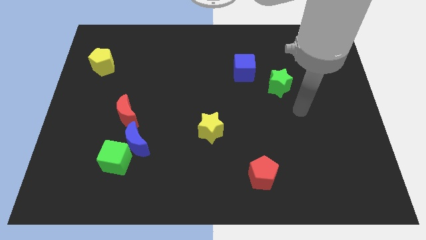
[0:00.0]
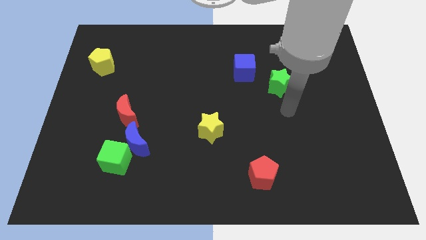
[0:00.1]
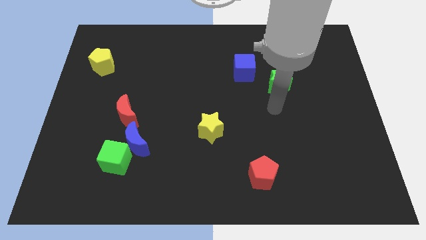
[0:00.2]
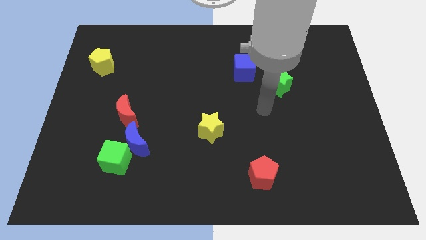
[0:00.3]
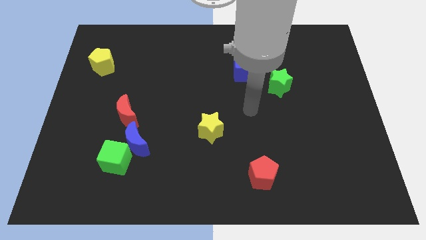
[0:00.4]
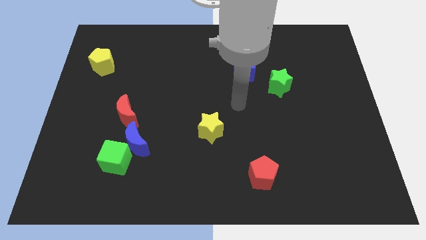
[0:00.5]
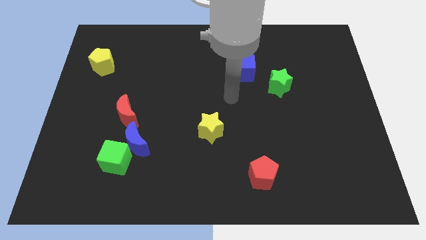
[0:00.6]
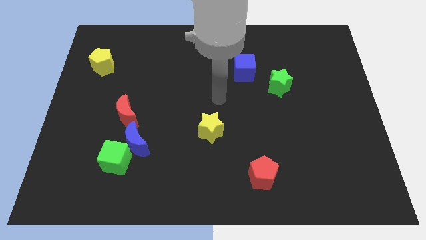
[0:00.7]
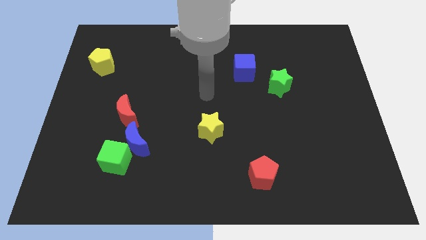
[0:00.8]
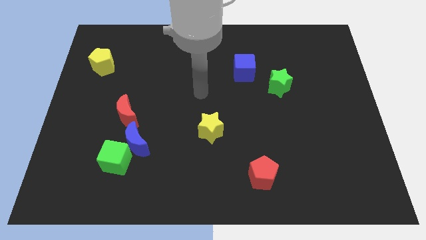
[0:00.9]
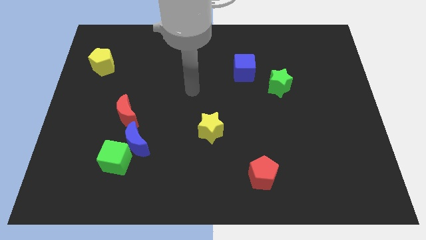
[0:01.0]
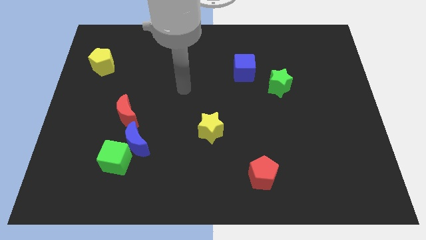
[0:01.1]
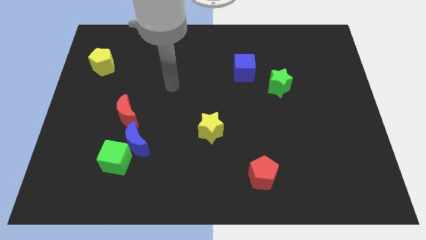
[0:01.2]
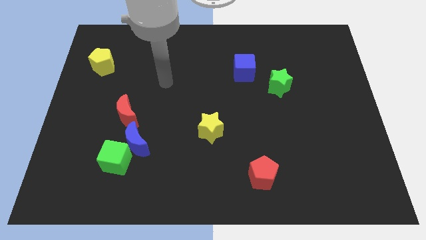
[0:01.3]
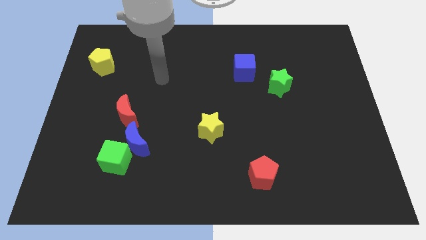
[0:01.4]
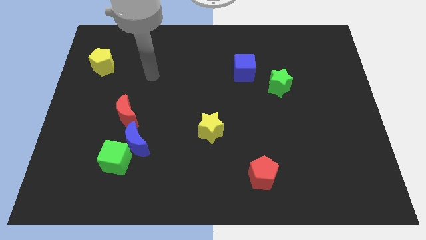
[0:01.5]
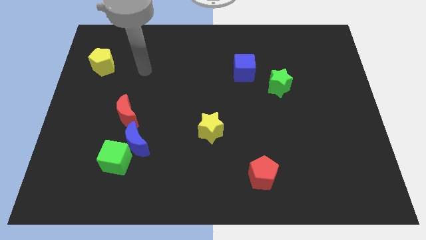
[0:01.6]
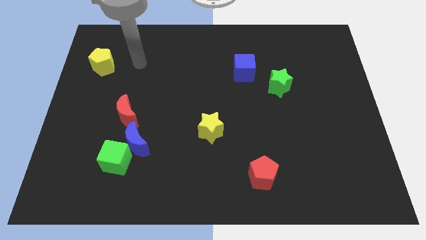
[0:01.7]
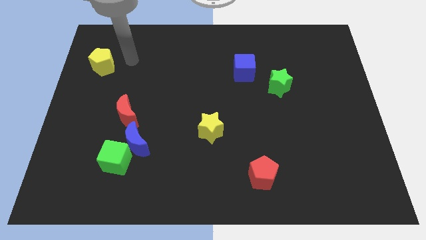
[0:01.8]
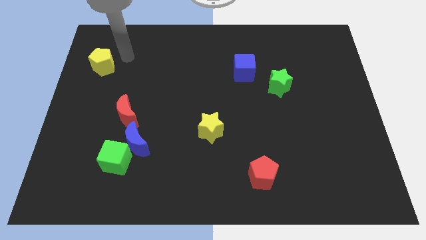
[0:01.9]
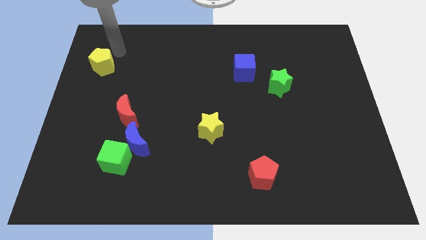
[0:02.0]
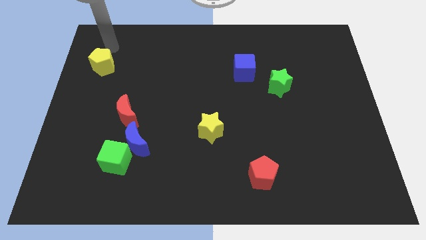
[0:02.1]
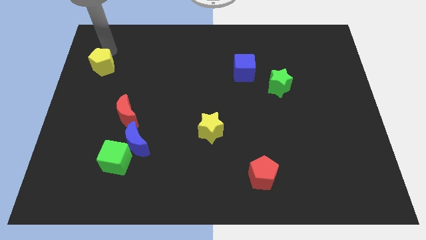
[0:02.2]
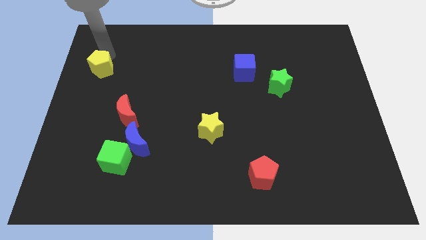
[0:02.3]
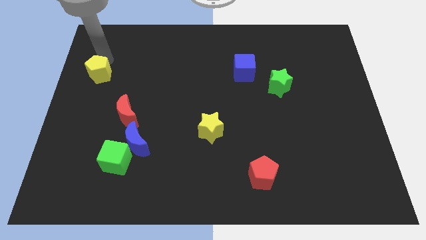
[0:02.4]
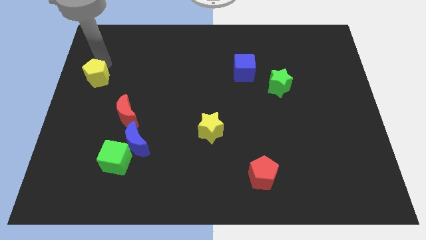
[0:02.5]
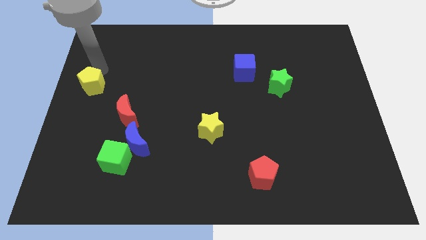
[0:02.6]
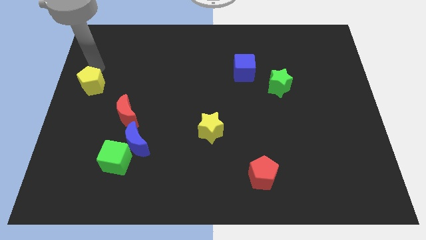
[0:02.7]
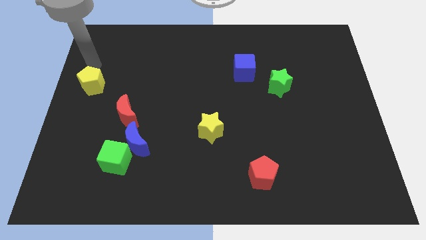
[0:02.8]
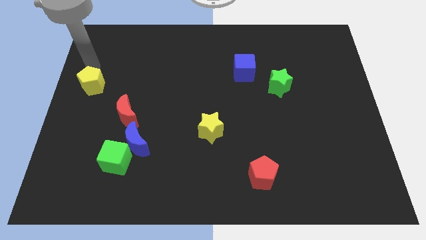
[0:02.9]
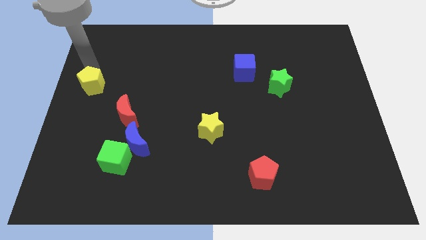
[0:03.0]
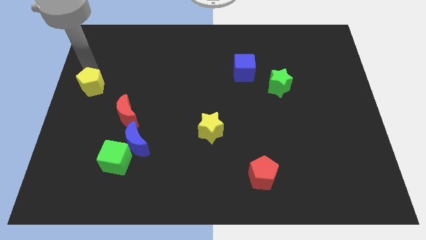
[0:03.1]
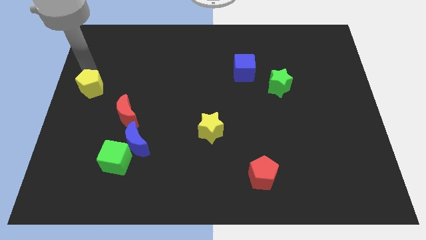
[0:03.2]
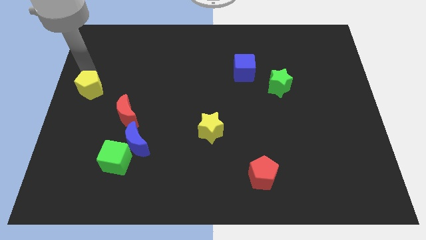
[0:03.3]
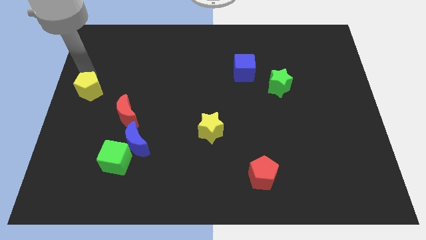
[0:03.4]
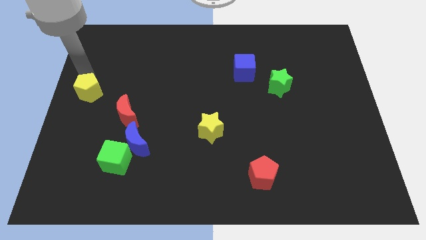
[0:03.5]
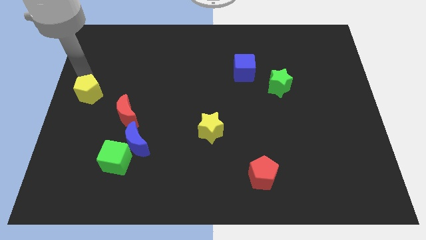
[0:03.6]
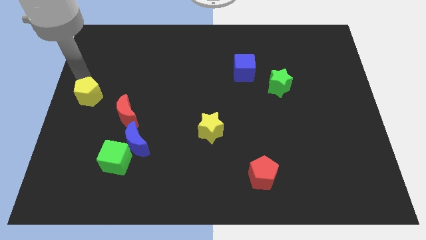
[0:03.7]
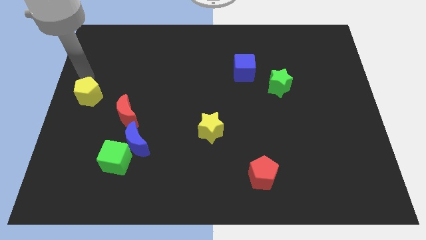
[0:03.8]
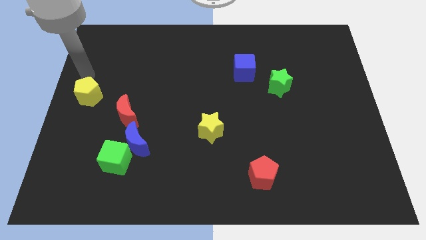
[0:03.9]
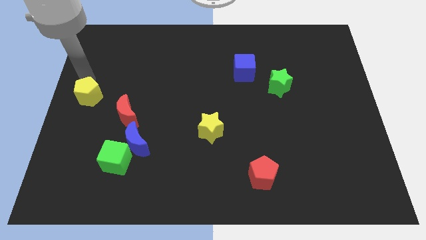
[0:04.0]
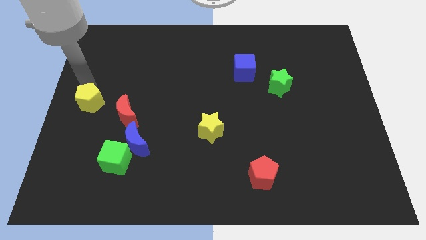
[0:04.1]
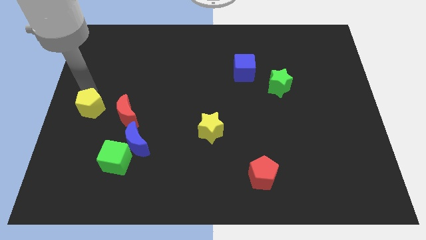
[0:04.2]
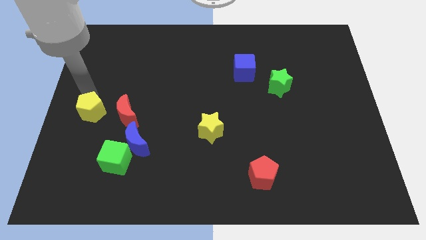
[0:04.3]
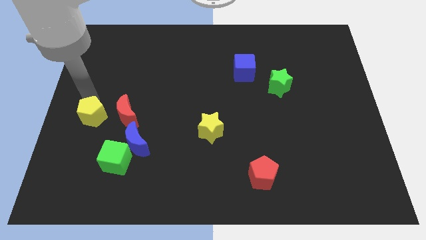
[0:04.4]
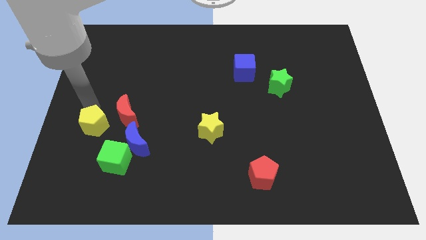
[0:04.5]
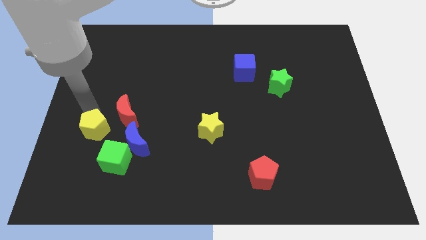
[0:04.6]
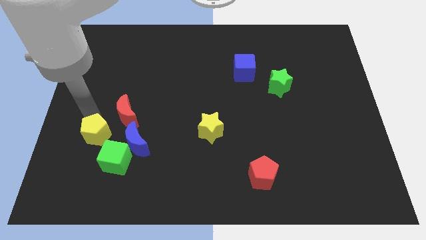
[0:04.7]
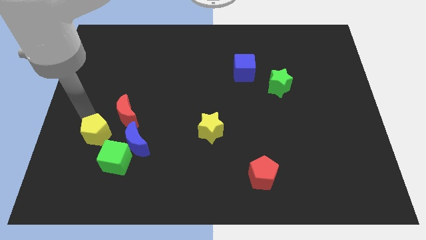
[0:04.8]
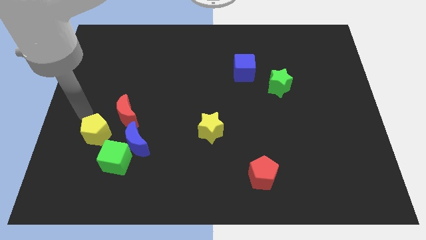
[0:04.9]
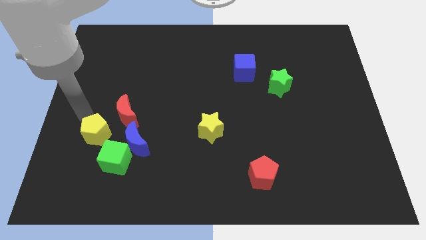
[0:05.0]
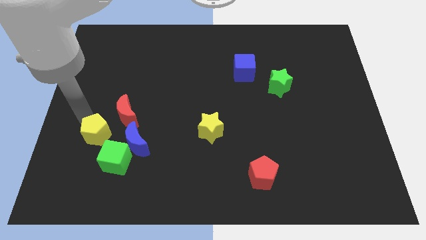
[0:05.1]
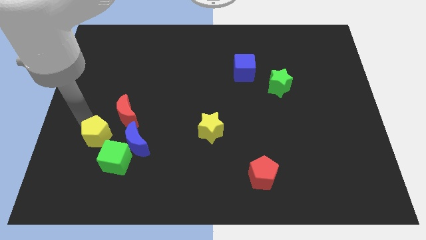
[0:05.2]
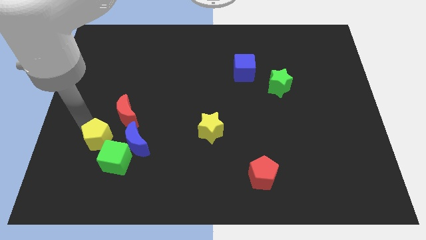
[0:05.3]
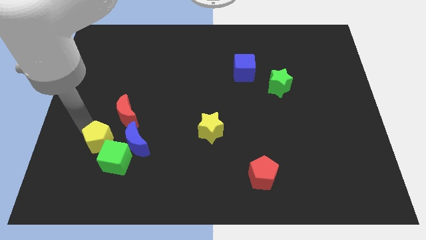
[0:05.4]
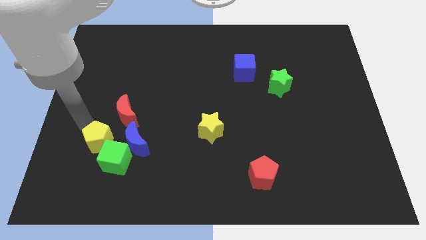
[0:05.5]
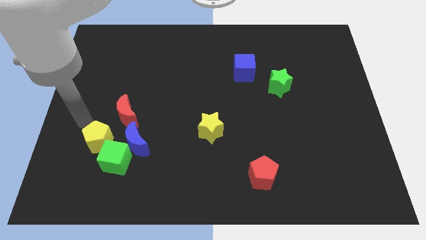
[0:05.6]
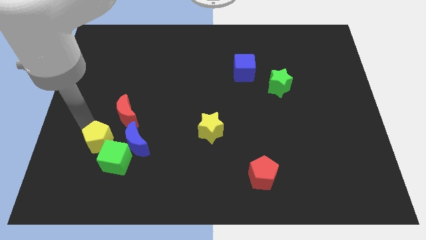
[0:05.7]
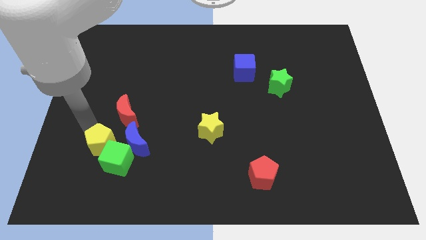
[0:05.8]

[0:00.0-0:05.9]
put the yellow pentagon to the green cube

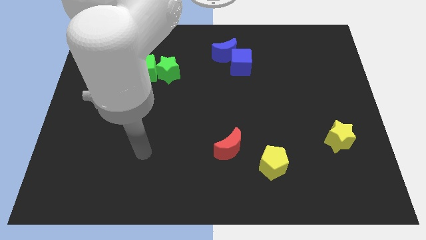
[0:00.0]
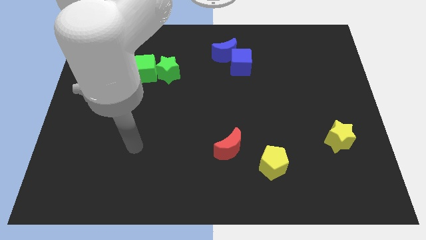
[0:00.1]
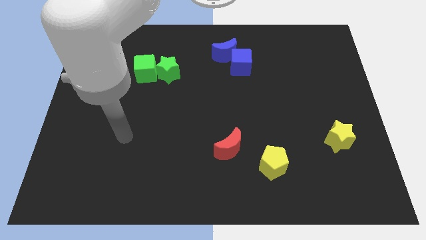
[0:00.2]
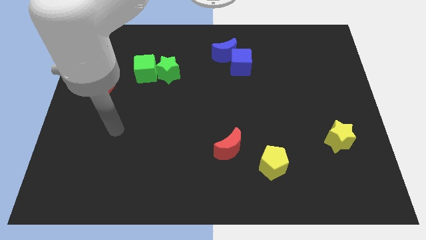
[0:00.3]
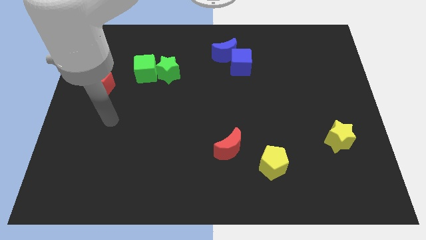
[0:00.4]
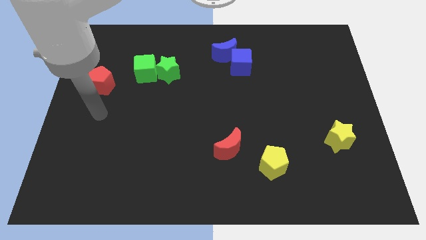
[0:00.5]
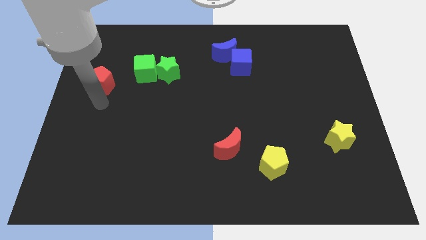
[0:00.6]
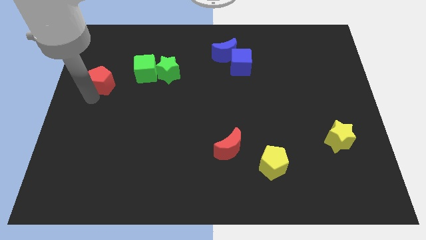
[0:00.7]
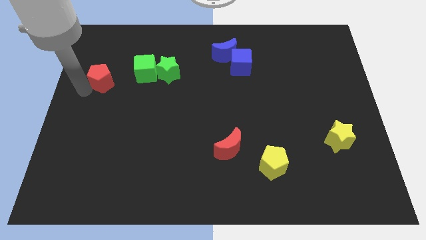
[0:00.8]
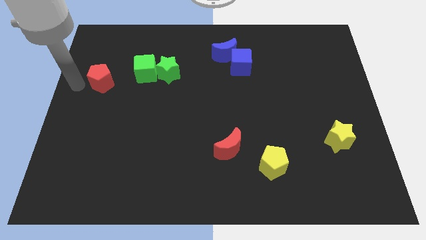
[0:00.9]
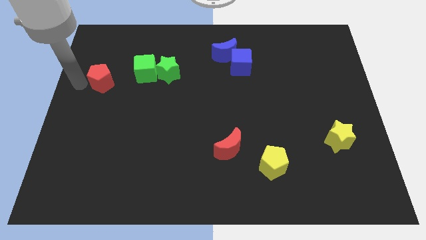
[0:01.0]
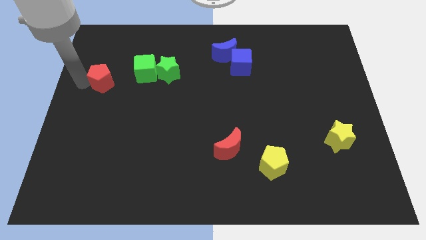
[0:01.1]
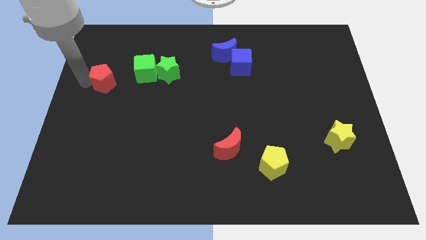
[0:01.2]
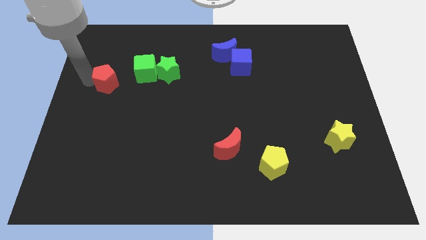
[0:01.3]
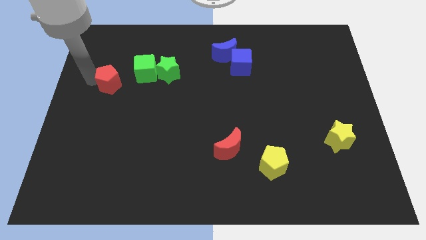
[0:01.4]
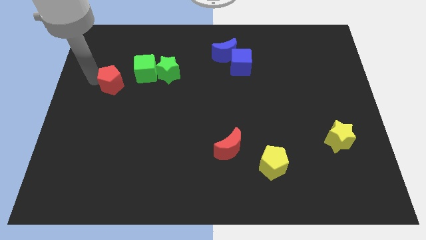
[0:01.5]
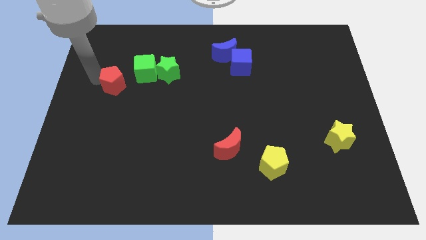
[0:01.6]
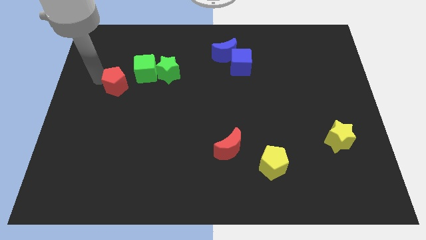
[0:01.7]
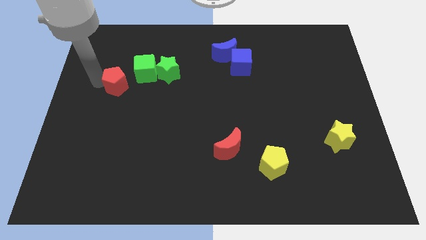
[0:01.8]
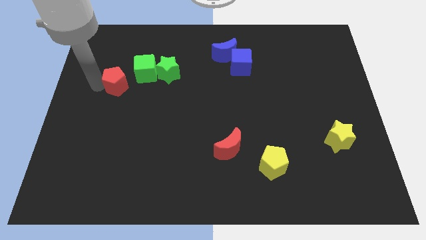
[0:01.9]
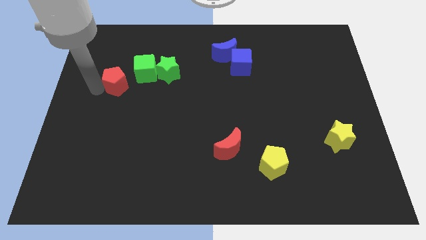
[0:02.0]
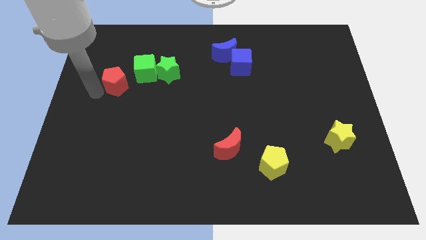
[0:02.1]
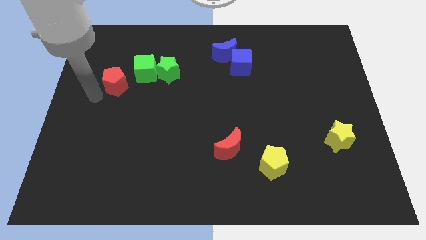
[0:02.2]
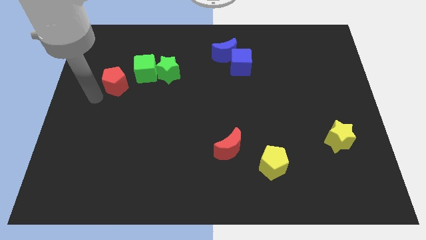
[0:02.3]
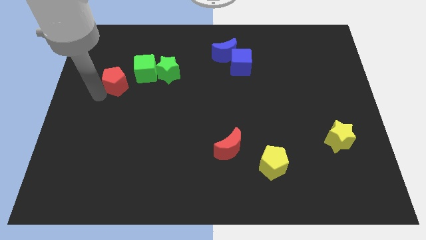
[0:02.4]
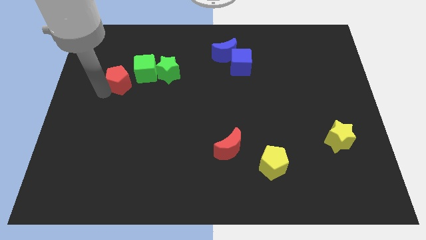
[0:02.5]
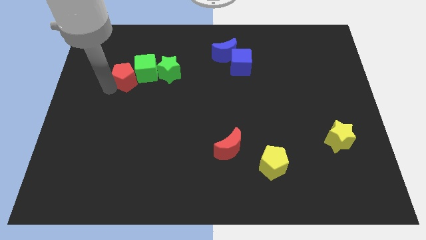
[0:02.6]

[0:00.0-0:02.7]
slide the red pentagon towards the green cube
